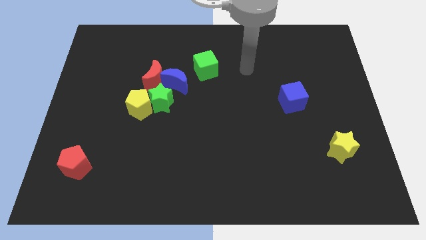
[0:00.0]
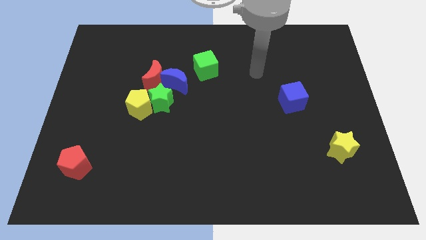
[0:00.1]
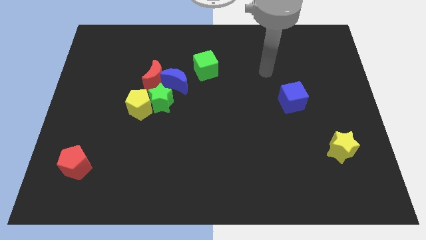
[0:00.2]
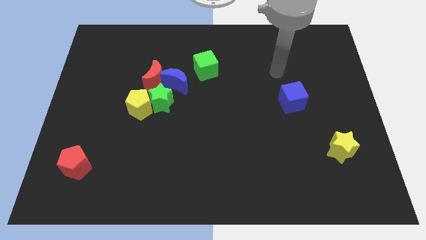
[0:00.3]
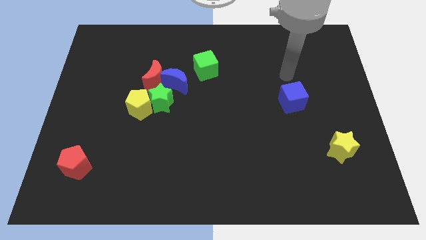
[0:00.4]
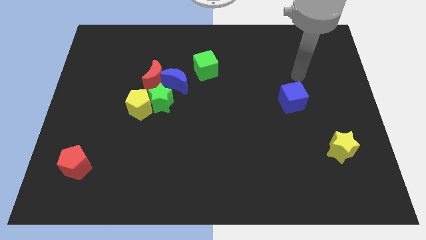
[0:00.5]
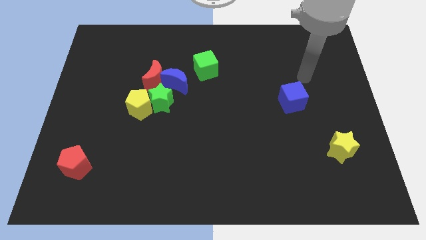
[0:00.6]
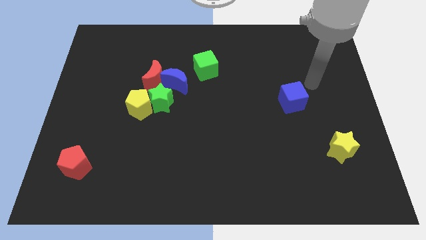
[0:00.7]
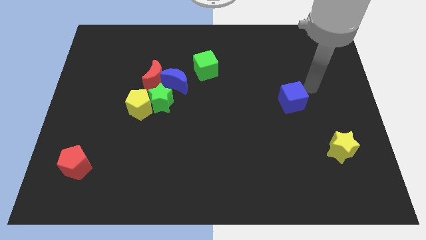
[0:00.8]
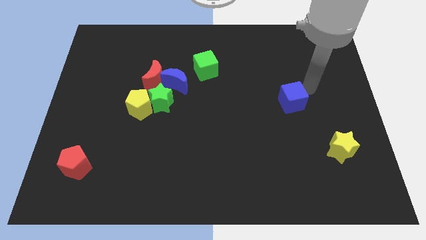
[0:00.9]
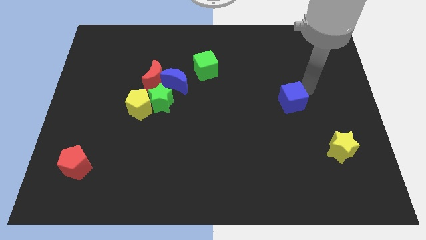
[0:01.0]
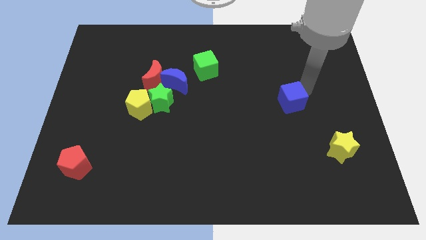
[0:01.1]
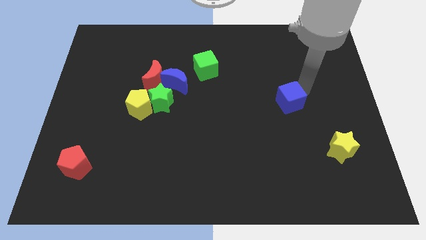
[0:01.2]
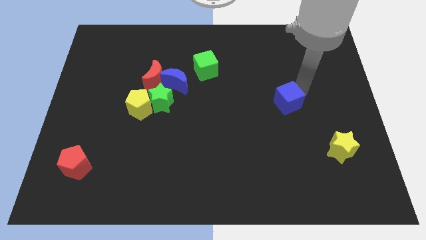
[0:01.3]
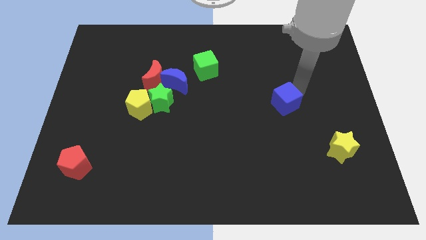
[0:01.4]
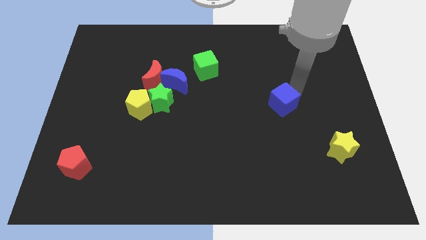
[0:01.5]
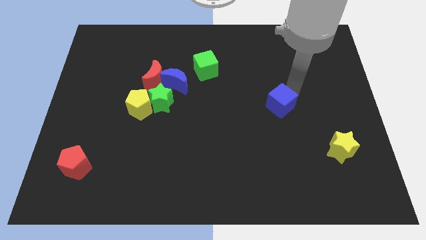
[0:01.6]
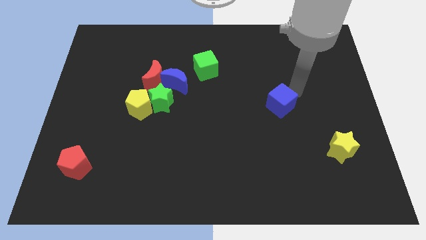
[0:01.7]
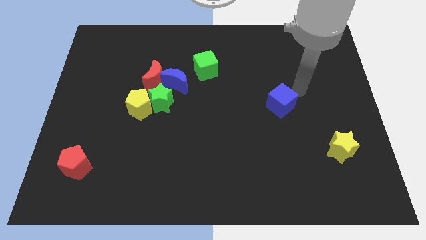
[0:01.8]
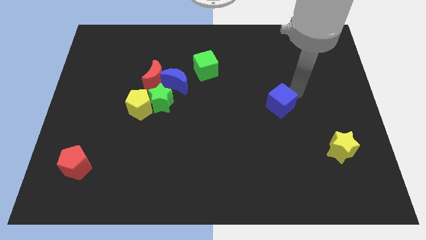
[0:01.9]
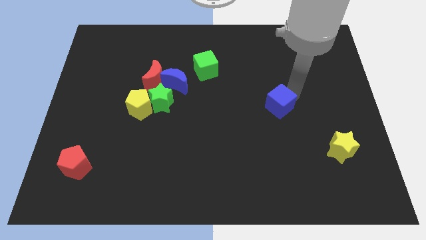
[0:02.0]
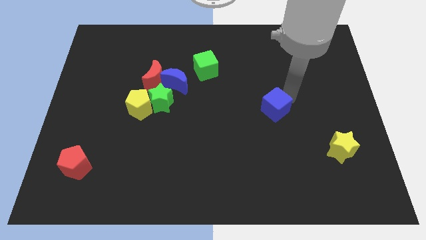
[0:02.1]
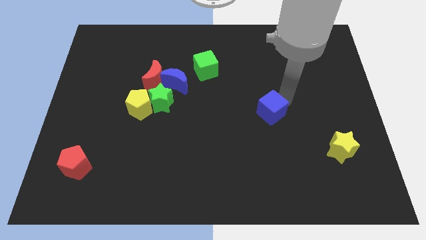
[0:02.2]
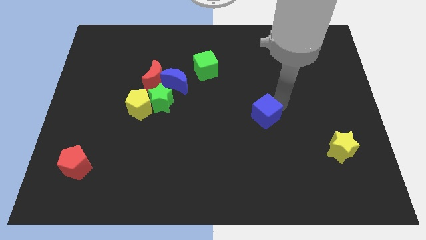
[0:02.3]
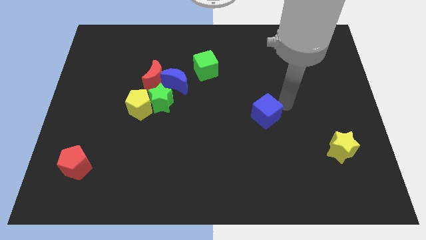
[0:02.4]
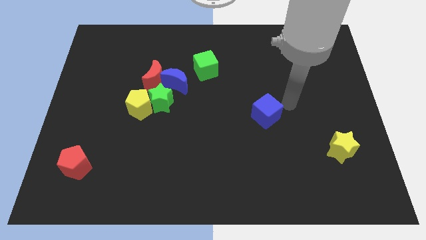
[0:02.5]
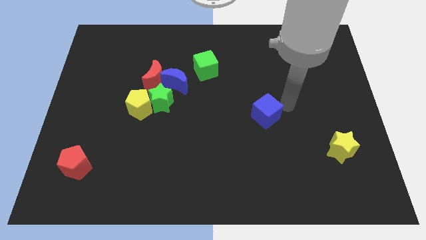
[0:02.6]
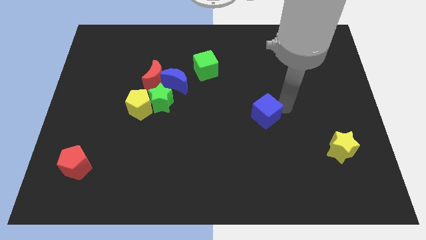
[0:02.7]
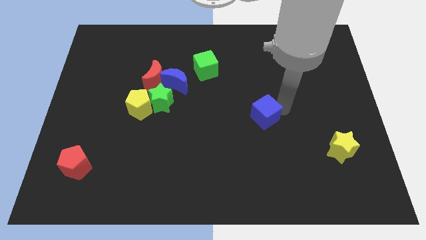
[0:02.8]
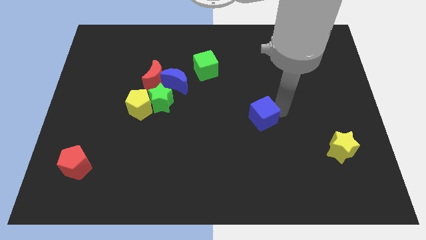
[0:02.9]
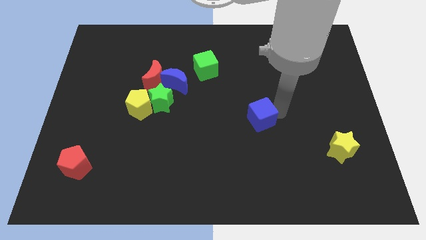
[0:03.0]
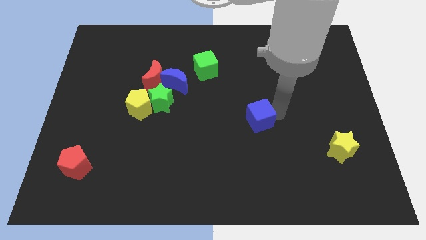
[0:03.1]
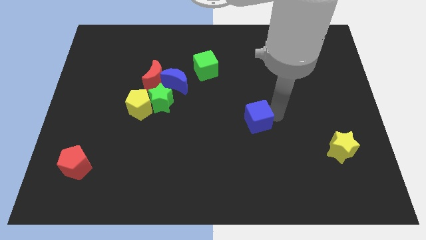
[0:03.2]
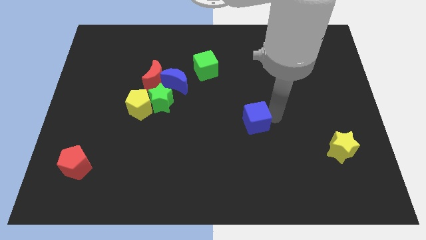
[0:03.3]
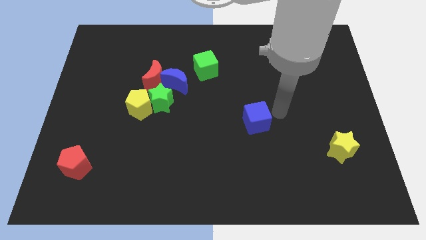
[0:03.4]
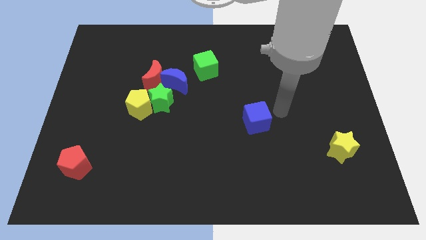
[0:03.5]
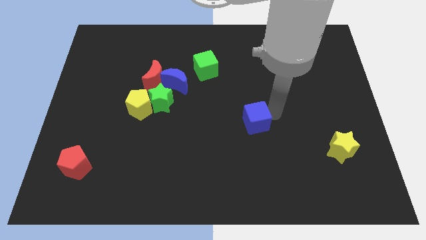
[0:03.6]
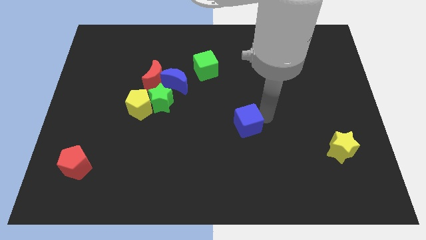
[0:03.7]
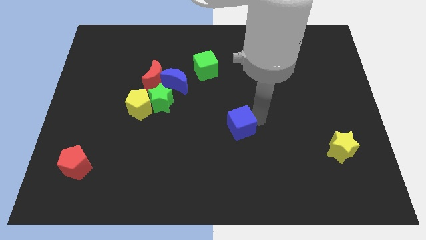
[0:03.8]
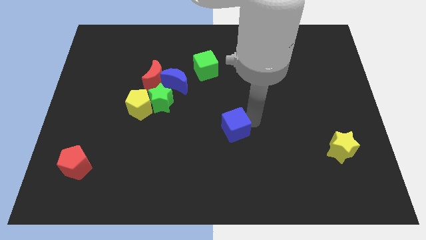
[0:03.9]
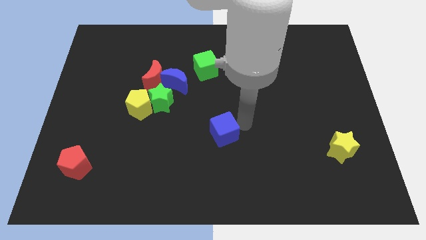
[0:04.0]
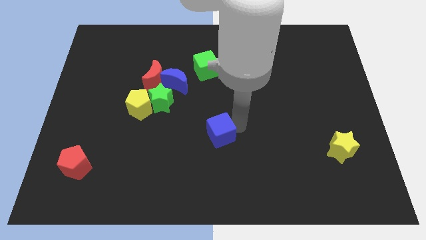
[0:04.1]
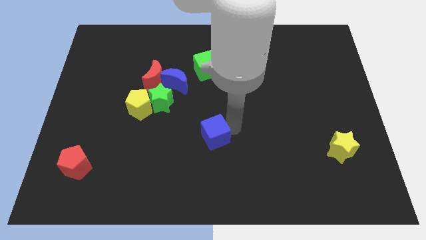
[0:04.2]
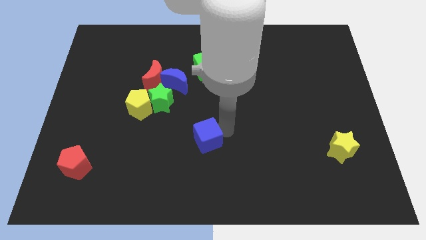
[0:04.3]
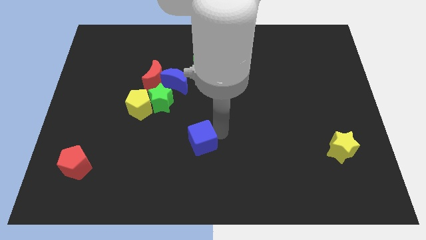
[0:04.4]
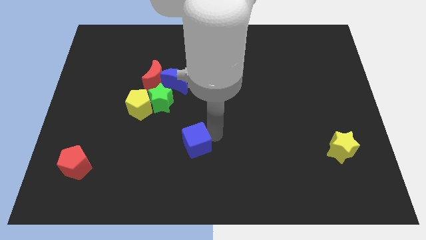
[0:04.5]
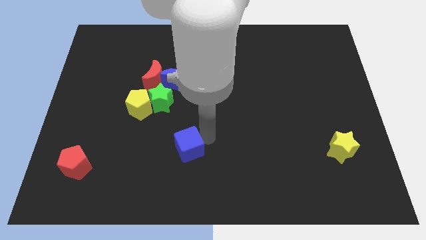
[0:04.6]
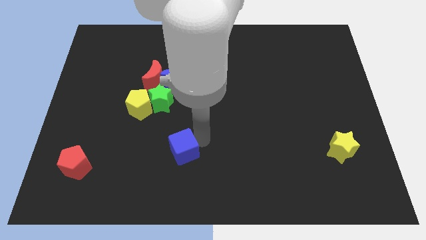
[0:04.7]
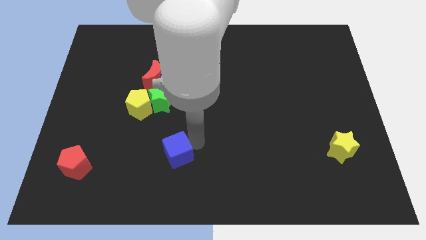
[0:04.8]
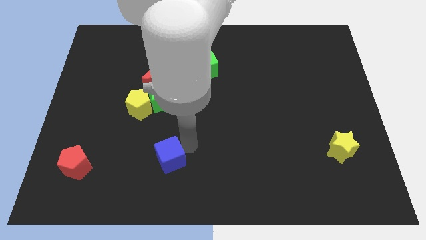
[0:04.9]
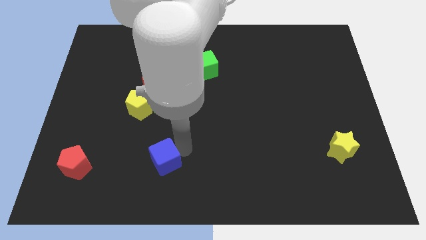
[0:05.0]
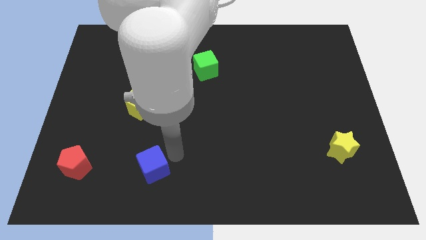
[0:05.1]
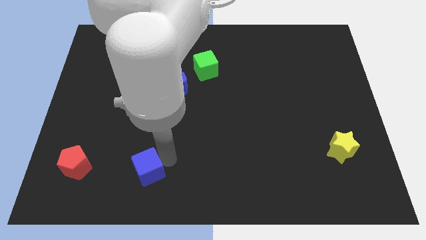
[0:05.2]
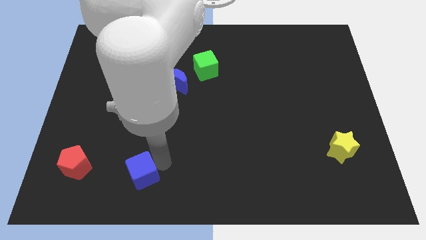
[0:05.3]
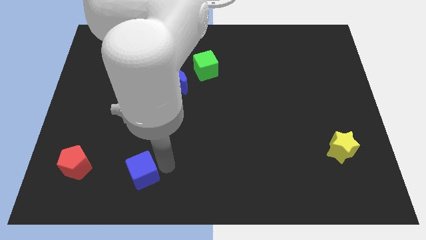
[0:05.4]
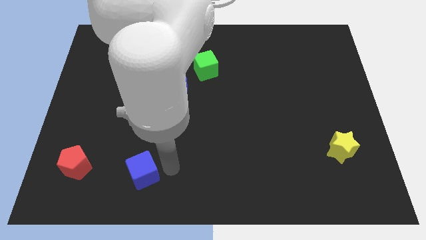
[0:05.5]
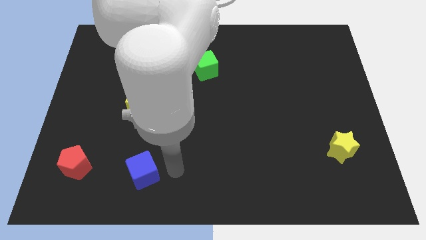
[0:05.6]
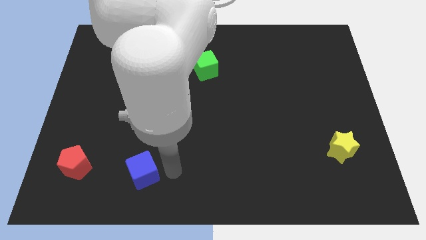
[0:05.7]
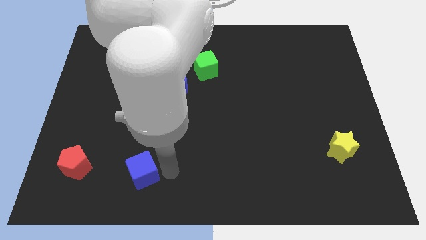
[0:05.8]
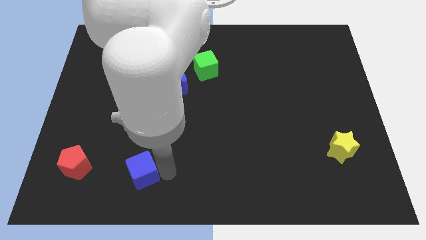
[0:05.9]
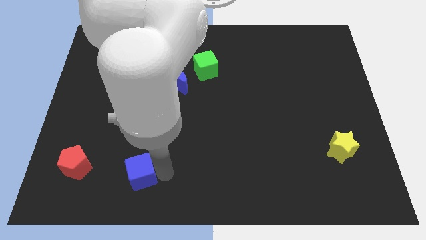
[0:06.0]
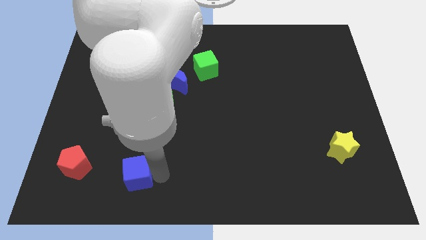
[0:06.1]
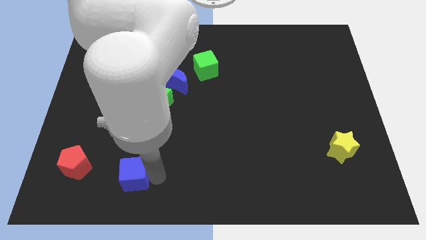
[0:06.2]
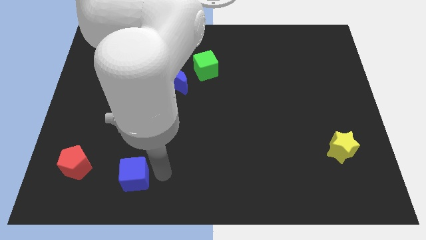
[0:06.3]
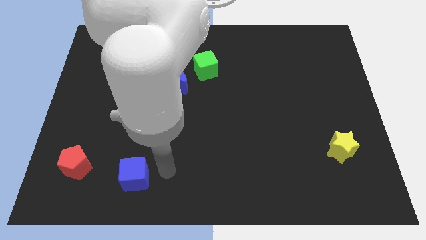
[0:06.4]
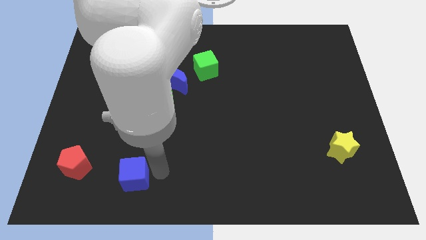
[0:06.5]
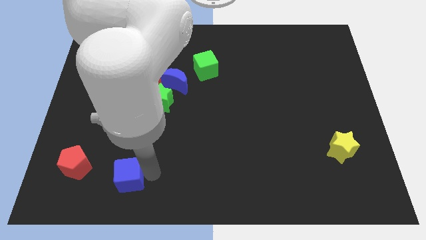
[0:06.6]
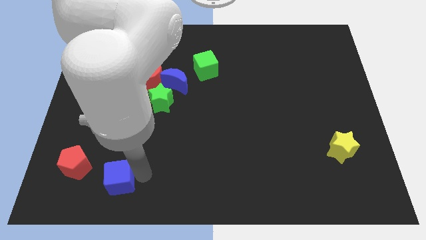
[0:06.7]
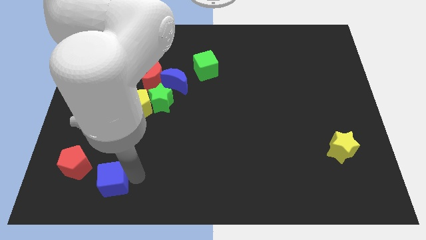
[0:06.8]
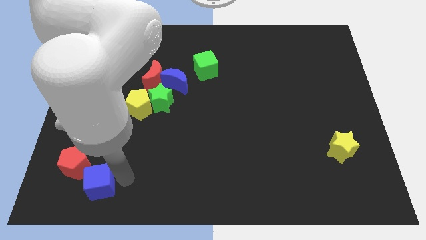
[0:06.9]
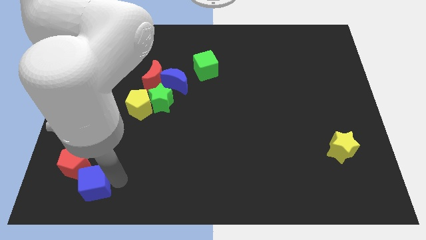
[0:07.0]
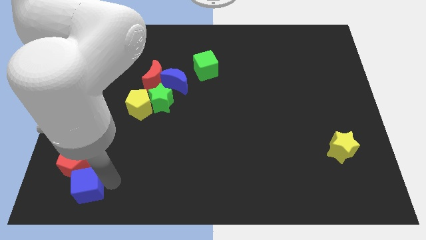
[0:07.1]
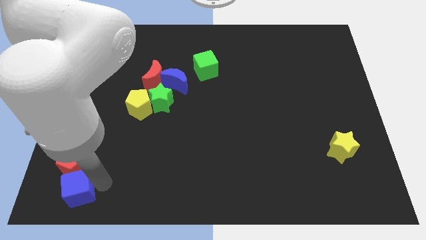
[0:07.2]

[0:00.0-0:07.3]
put the blue cube to the bottom left corner
